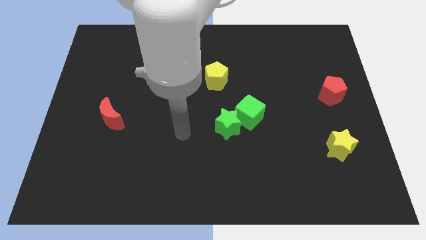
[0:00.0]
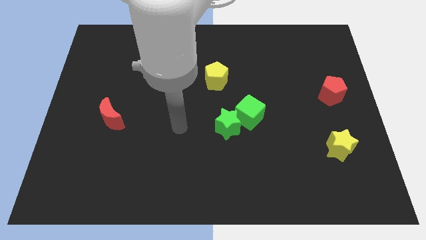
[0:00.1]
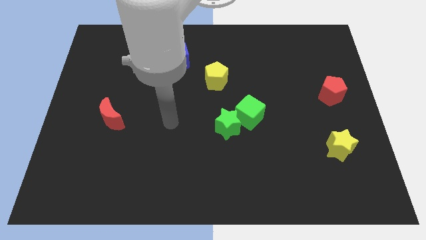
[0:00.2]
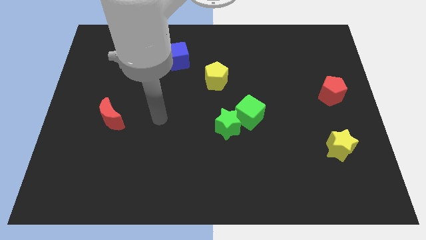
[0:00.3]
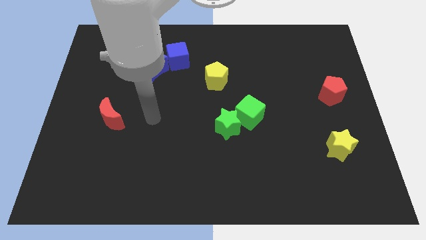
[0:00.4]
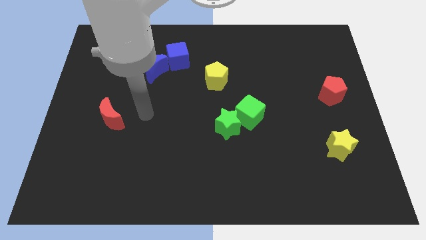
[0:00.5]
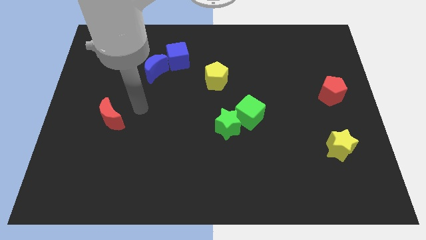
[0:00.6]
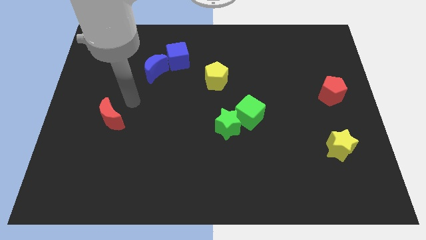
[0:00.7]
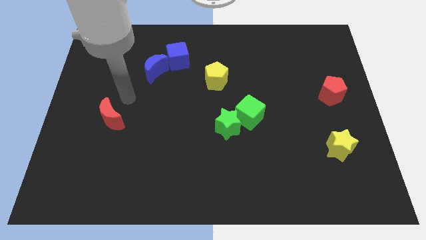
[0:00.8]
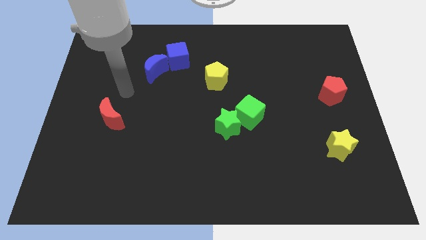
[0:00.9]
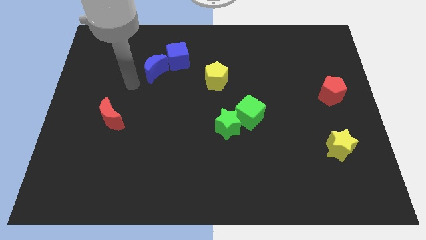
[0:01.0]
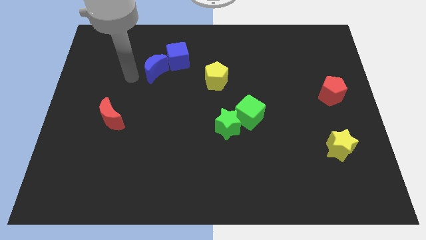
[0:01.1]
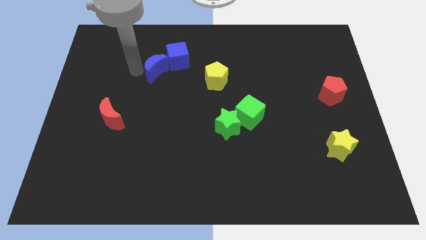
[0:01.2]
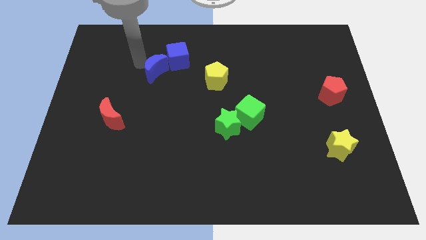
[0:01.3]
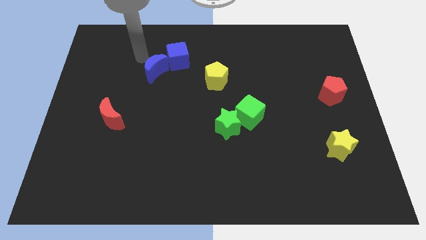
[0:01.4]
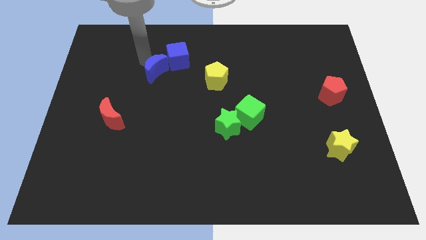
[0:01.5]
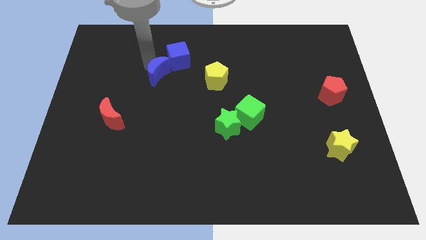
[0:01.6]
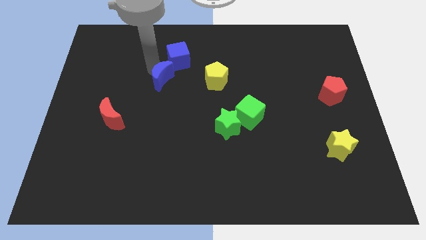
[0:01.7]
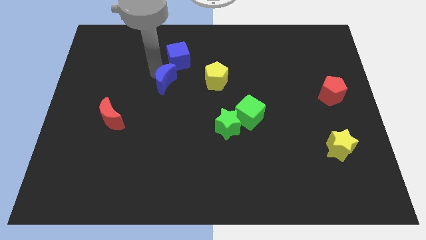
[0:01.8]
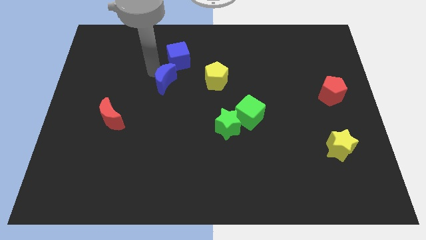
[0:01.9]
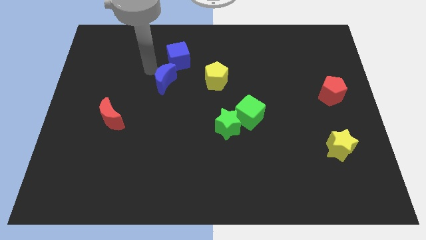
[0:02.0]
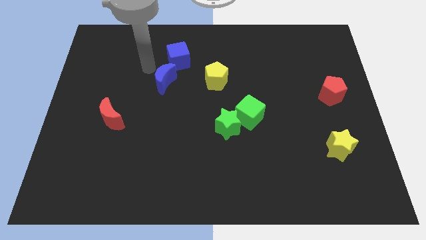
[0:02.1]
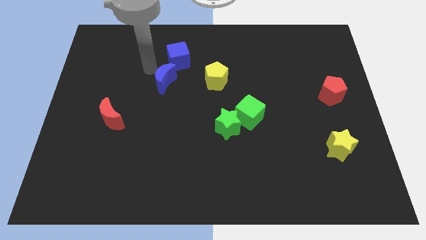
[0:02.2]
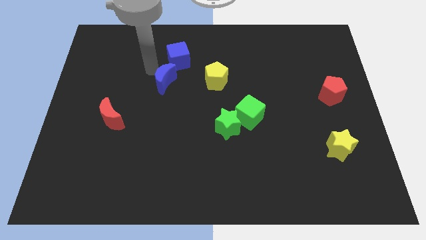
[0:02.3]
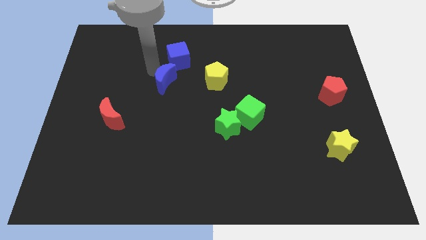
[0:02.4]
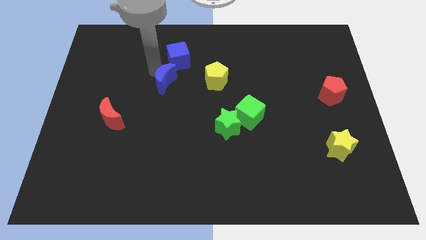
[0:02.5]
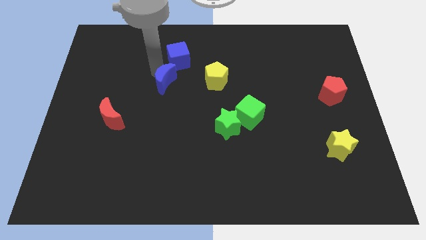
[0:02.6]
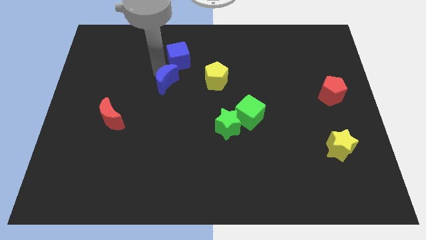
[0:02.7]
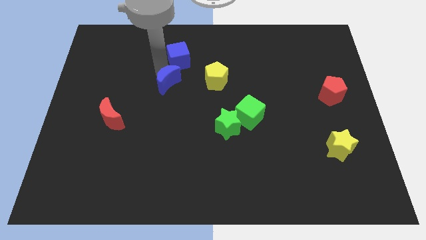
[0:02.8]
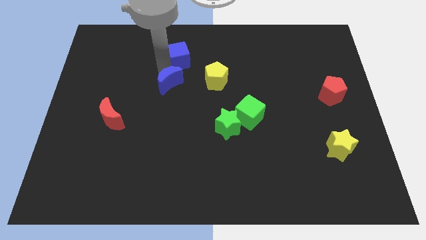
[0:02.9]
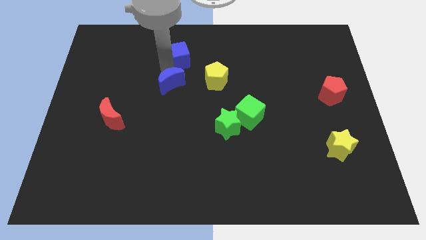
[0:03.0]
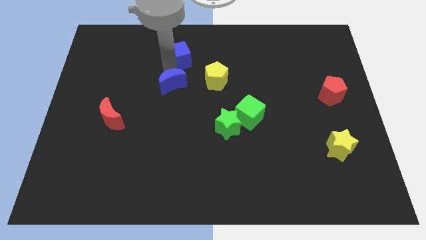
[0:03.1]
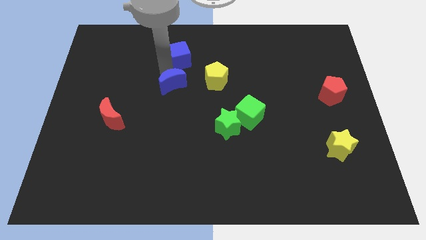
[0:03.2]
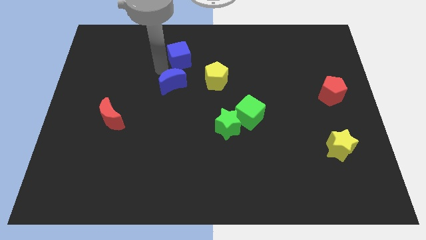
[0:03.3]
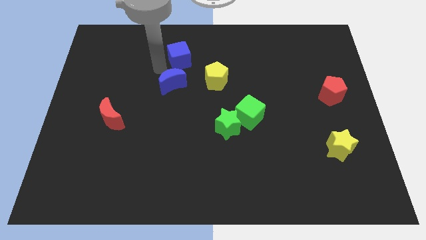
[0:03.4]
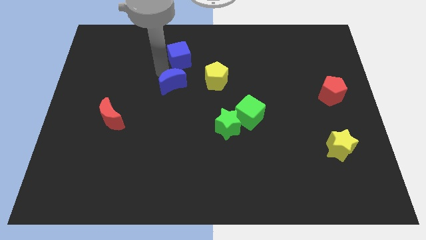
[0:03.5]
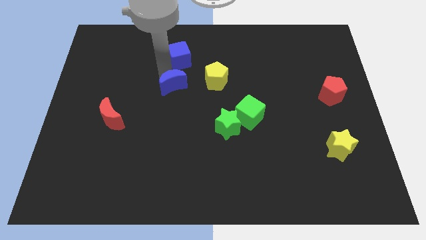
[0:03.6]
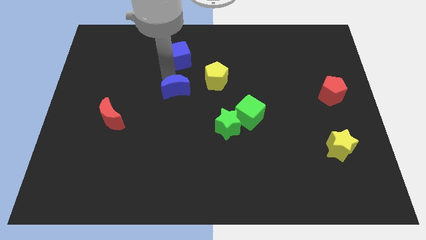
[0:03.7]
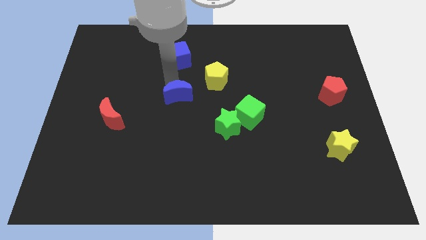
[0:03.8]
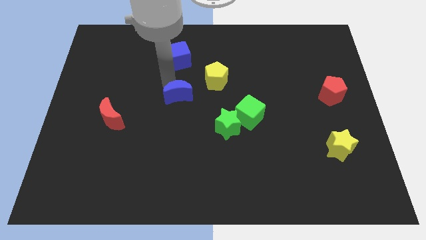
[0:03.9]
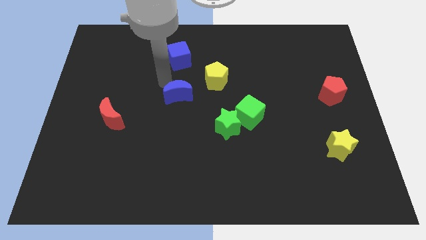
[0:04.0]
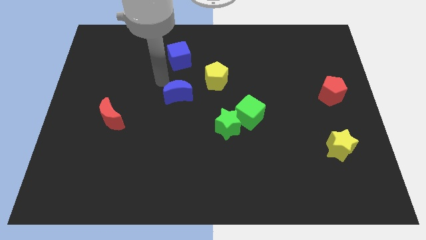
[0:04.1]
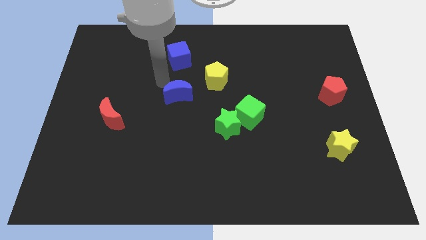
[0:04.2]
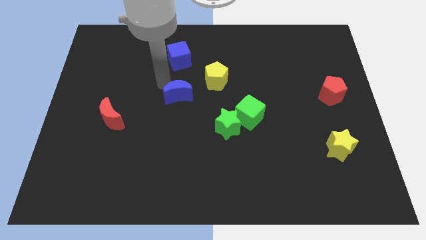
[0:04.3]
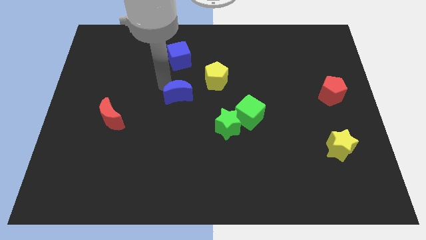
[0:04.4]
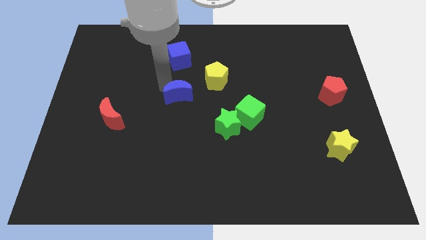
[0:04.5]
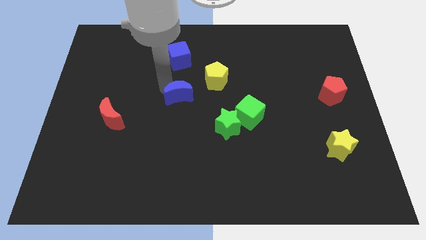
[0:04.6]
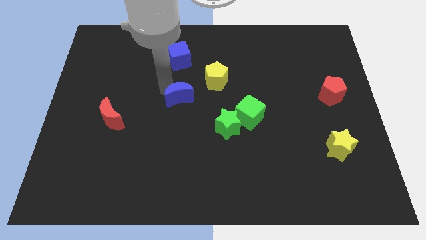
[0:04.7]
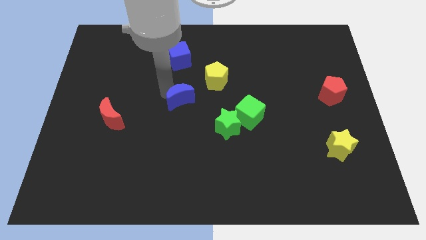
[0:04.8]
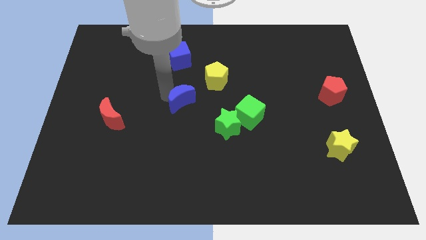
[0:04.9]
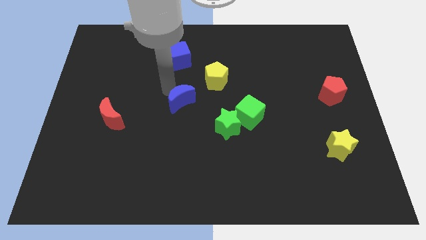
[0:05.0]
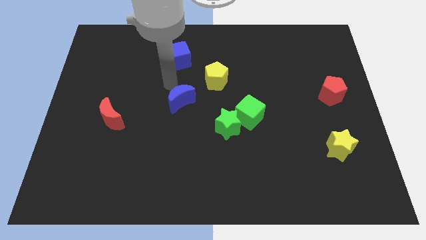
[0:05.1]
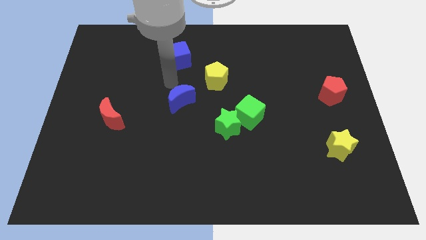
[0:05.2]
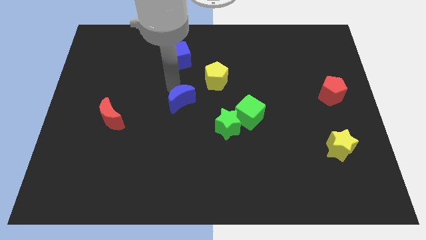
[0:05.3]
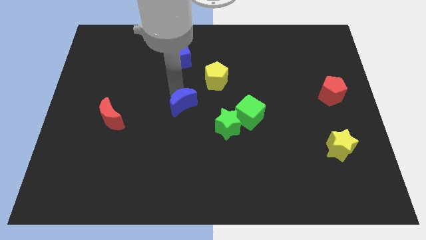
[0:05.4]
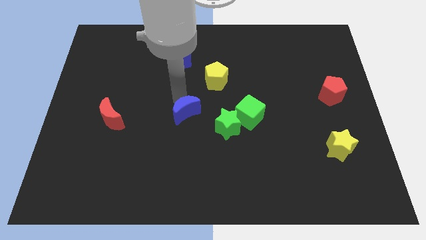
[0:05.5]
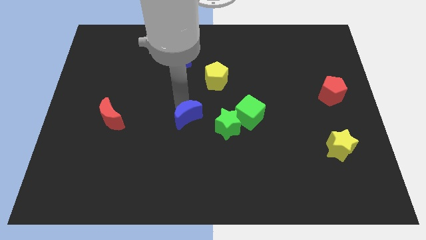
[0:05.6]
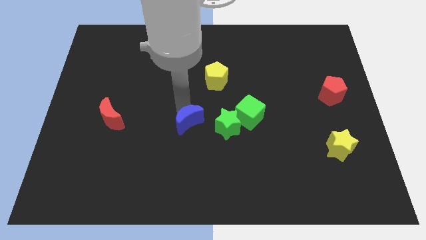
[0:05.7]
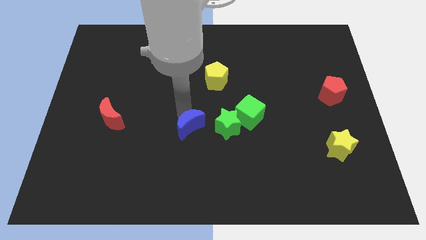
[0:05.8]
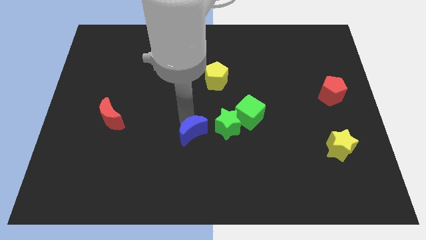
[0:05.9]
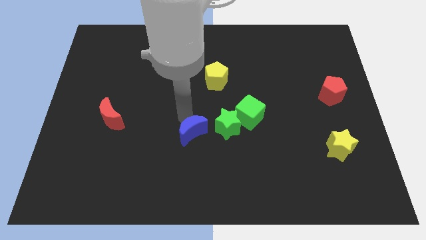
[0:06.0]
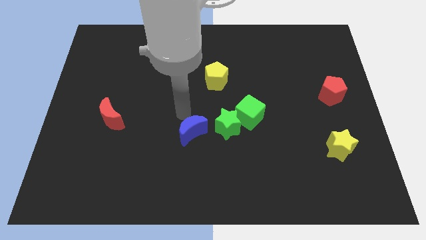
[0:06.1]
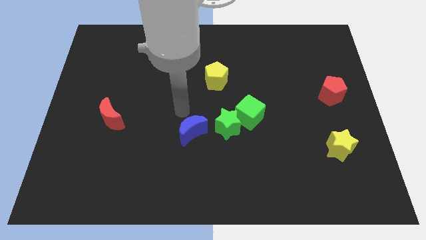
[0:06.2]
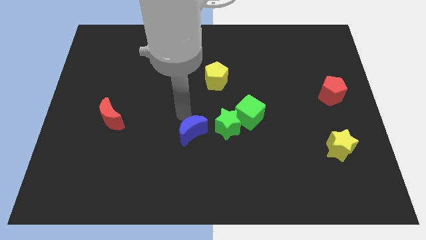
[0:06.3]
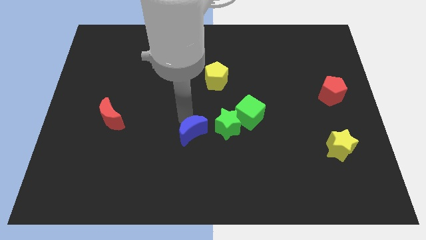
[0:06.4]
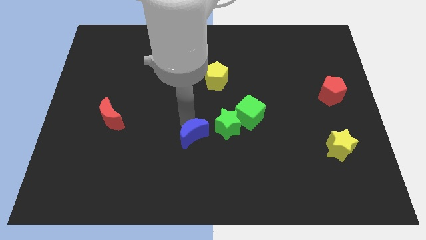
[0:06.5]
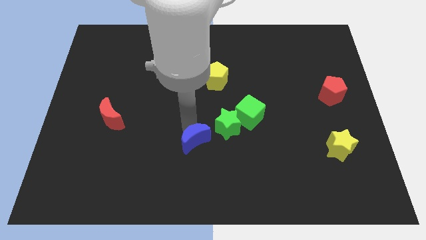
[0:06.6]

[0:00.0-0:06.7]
slide the blue moon down and to the right diagonally

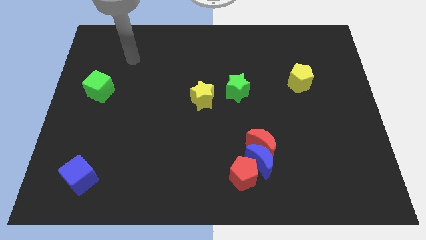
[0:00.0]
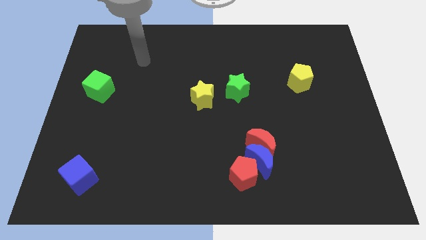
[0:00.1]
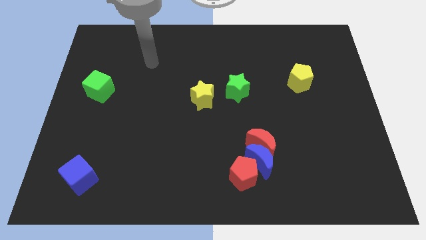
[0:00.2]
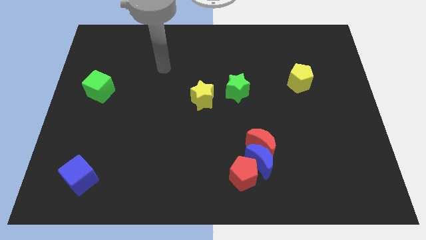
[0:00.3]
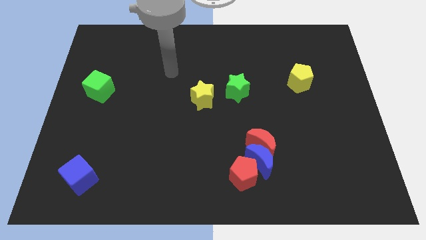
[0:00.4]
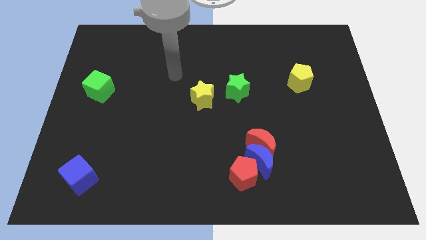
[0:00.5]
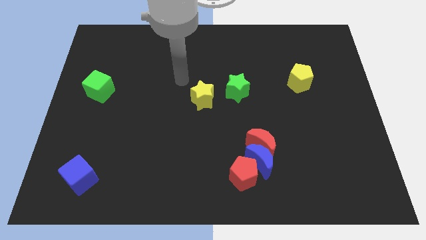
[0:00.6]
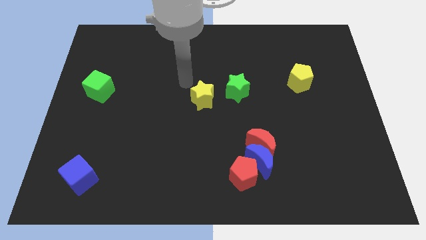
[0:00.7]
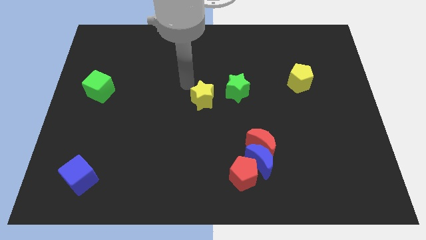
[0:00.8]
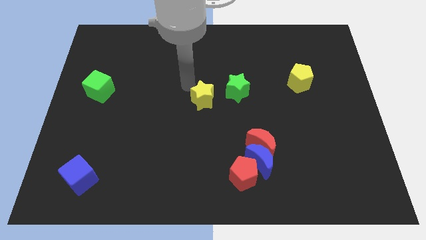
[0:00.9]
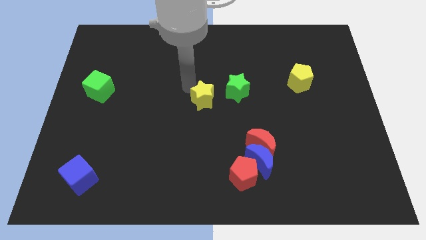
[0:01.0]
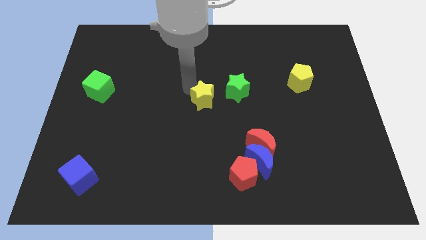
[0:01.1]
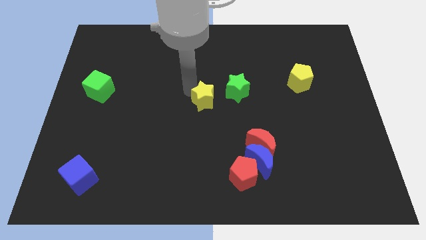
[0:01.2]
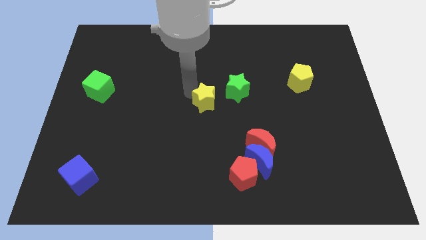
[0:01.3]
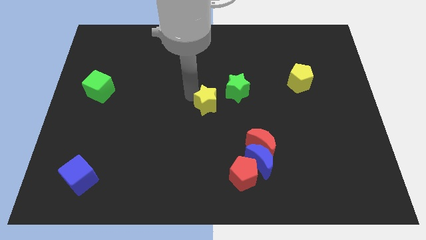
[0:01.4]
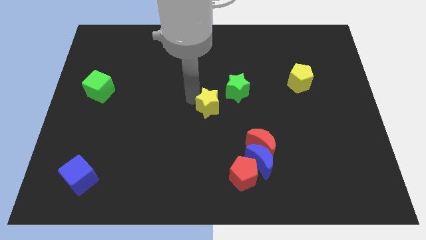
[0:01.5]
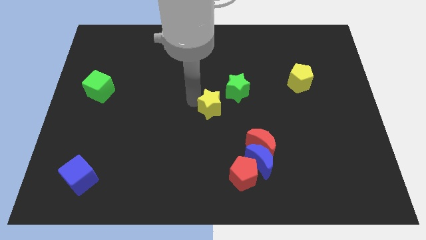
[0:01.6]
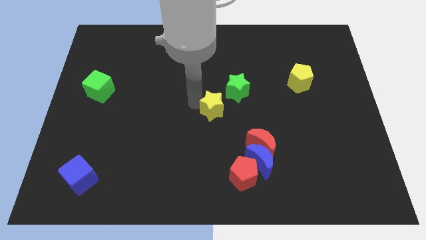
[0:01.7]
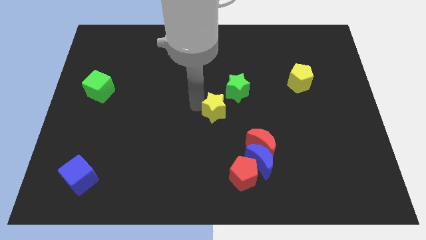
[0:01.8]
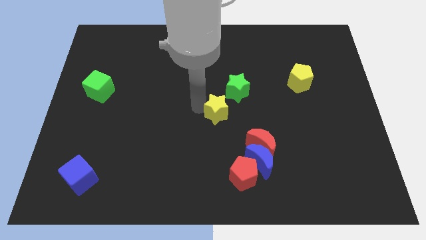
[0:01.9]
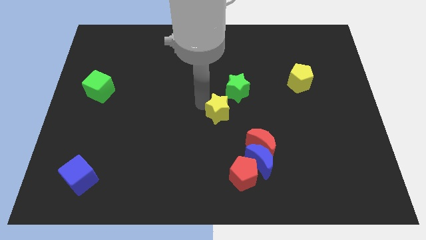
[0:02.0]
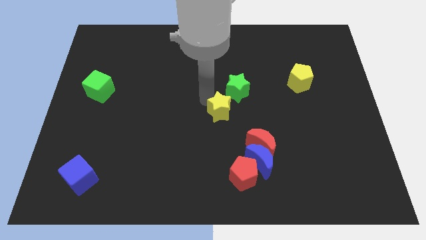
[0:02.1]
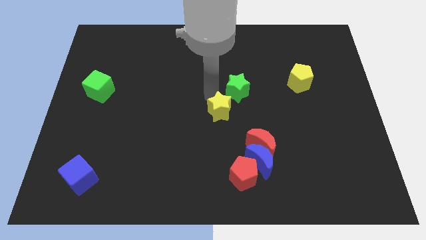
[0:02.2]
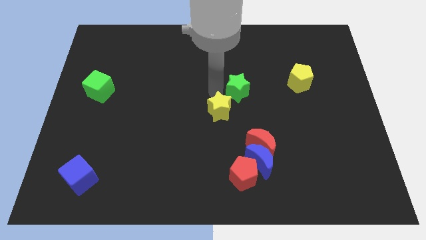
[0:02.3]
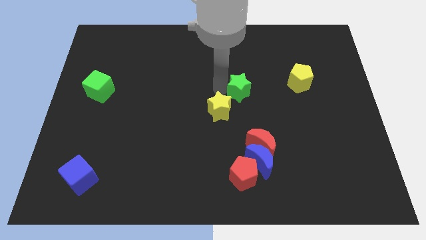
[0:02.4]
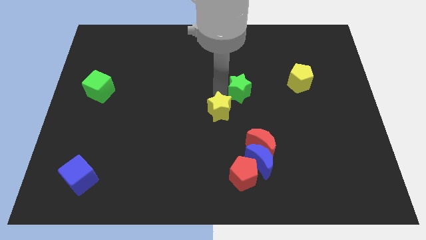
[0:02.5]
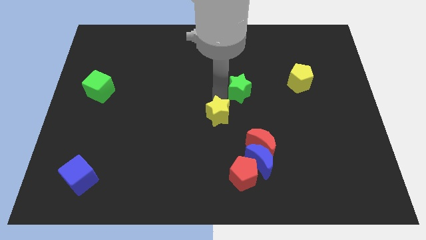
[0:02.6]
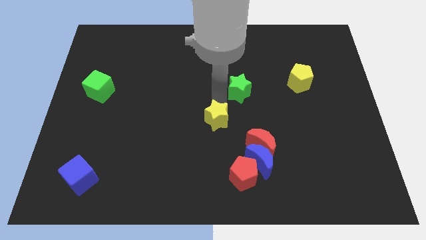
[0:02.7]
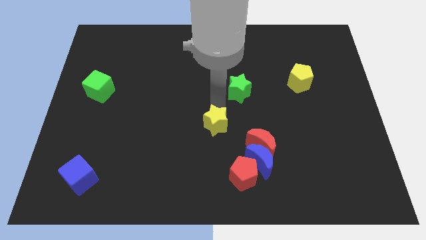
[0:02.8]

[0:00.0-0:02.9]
slightly move the yellow star downwards
